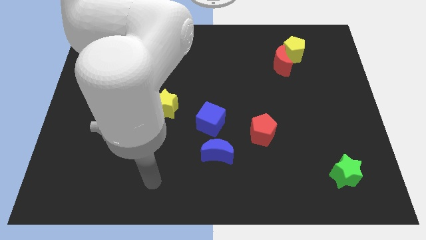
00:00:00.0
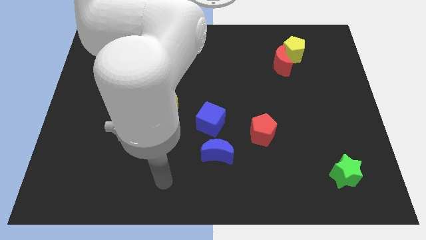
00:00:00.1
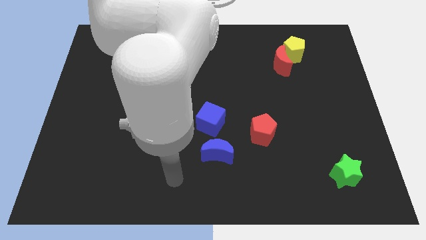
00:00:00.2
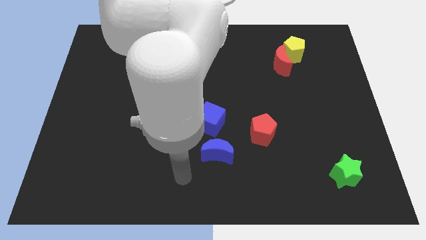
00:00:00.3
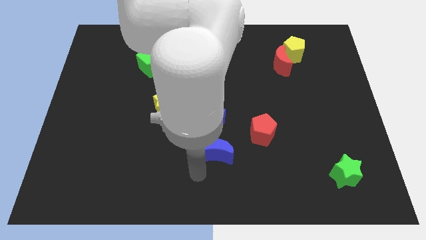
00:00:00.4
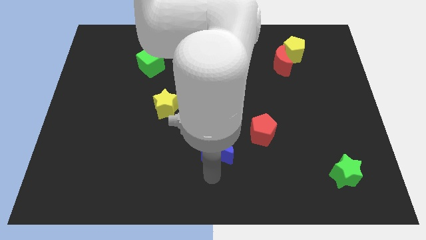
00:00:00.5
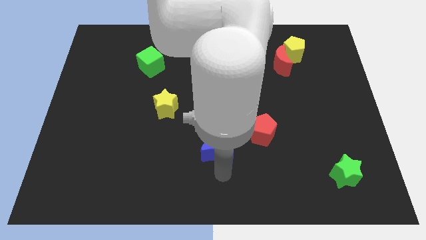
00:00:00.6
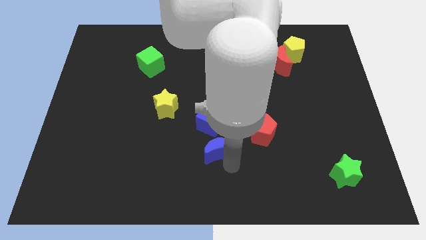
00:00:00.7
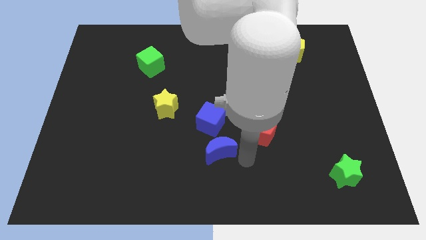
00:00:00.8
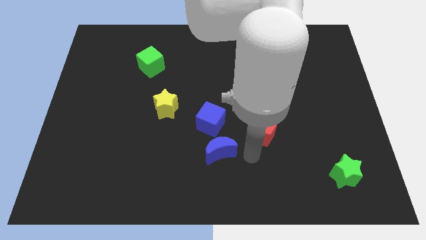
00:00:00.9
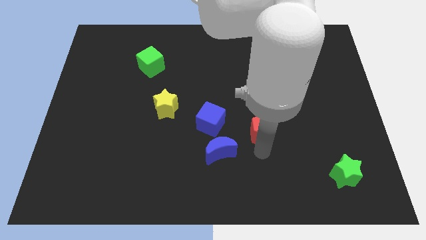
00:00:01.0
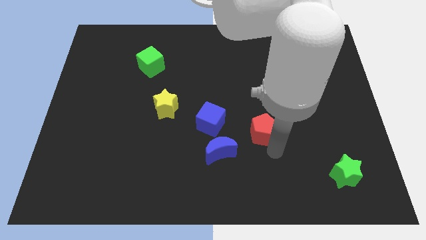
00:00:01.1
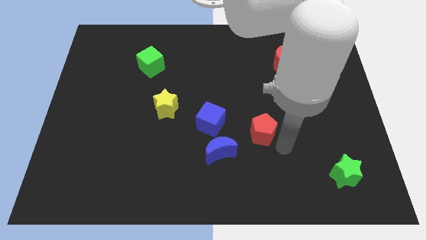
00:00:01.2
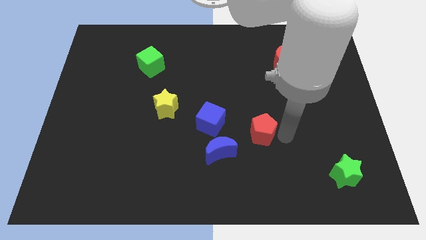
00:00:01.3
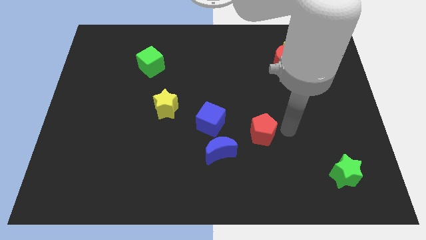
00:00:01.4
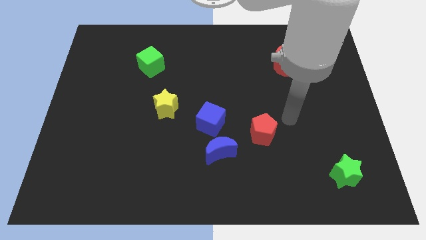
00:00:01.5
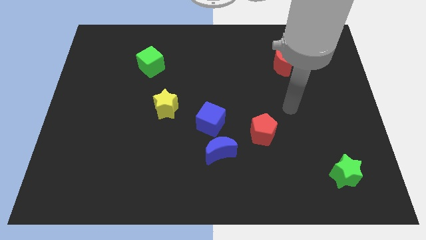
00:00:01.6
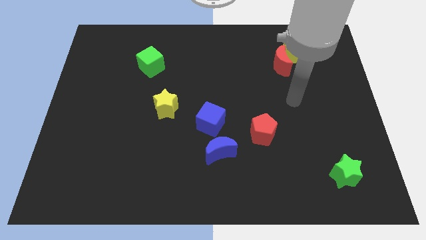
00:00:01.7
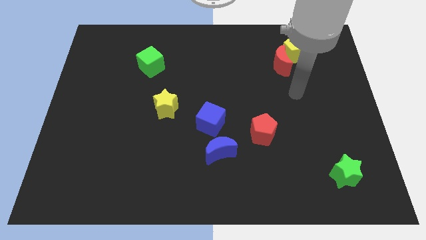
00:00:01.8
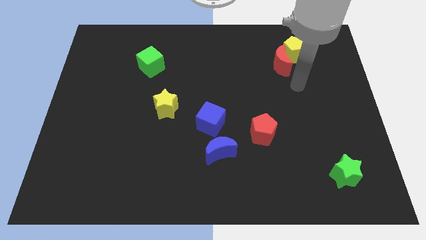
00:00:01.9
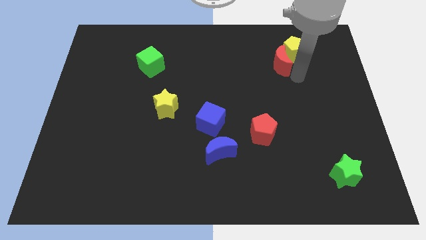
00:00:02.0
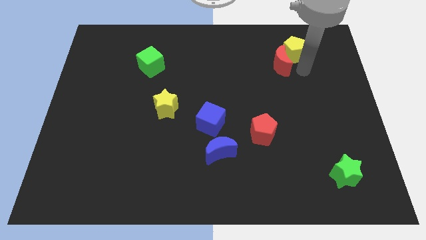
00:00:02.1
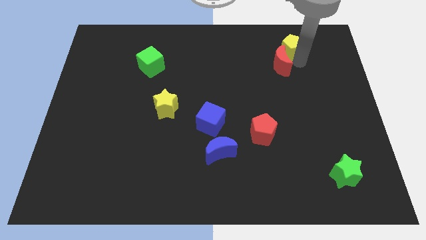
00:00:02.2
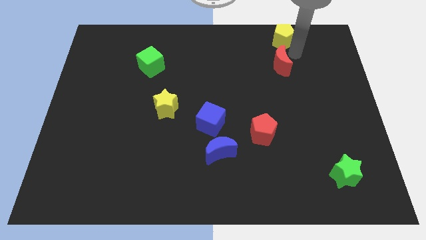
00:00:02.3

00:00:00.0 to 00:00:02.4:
move the red moon away from the yellow pentagon

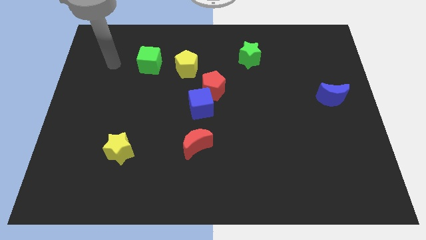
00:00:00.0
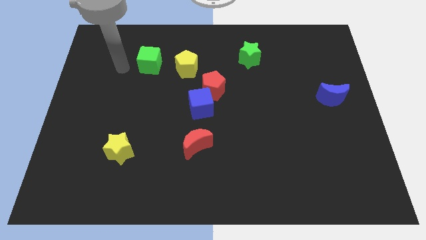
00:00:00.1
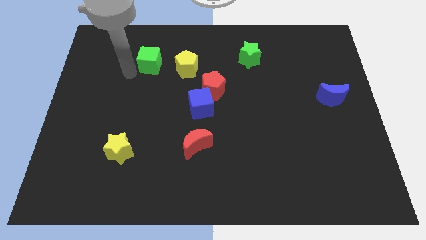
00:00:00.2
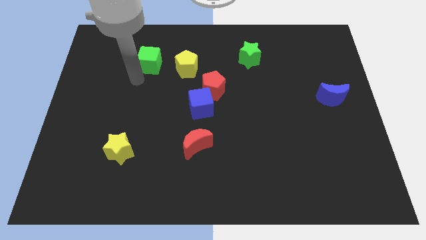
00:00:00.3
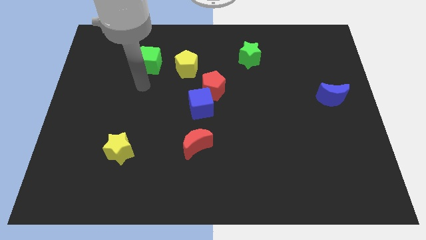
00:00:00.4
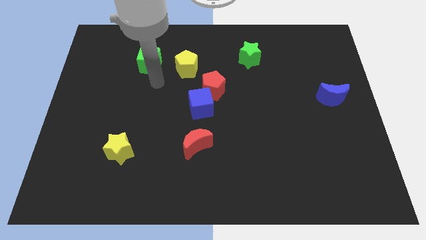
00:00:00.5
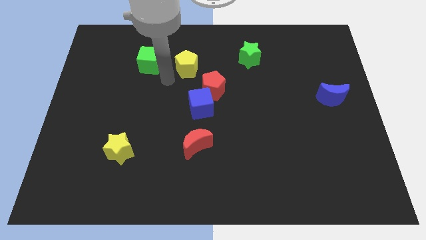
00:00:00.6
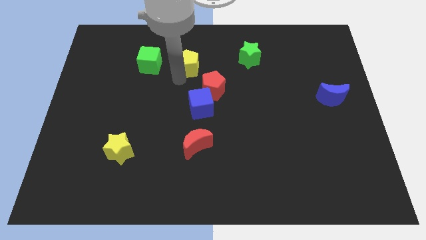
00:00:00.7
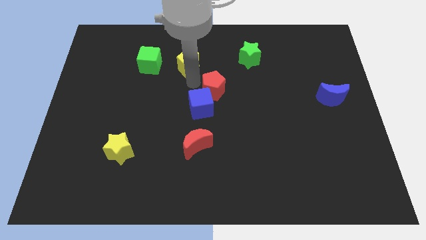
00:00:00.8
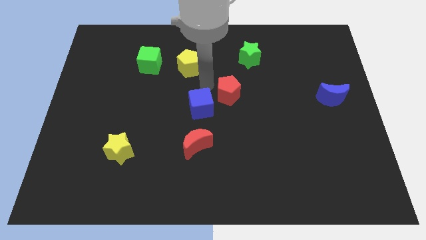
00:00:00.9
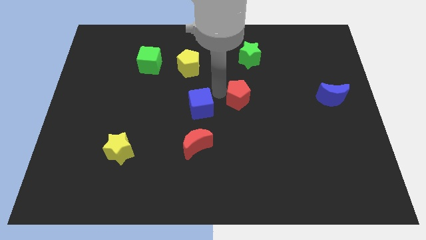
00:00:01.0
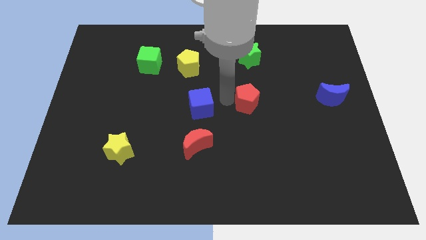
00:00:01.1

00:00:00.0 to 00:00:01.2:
pull the blue cube apart from the red pentagon

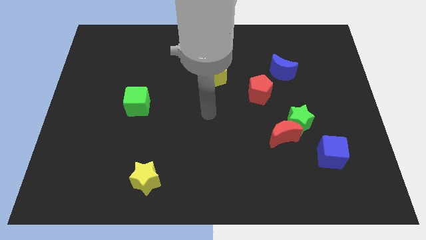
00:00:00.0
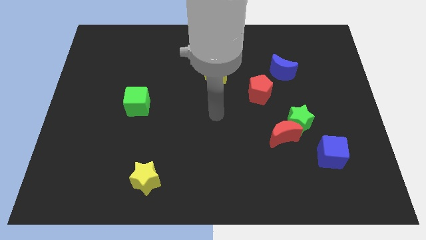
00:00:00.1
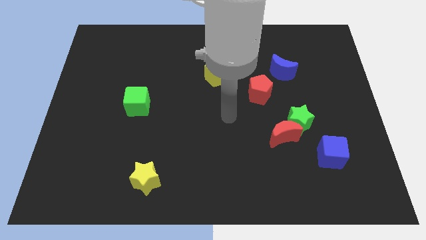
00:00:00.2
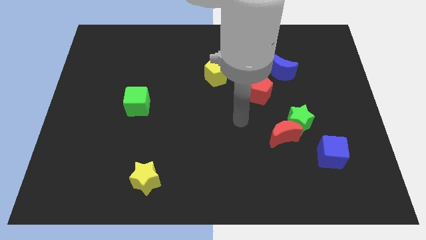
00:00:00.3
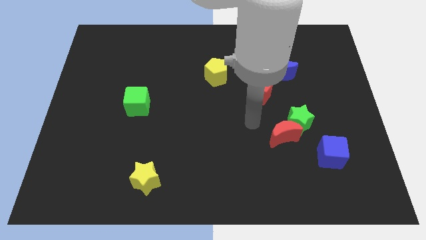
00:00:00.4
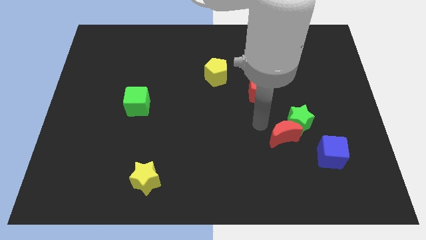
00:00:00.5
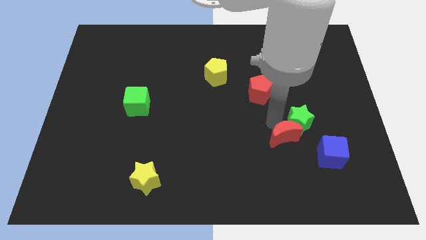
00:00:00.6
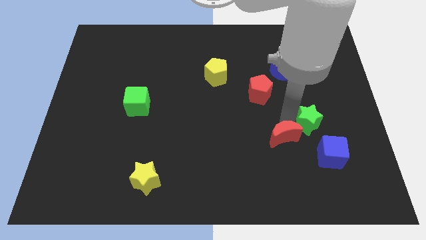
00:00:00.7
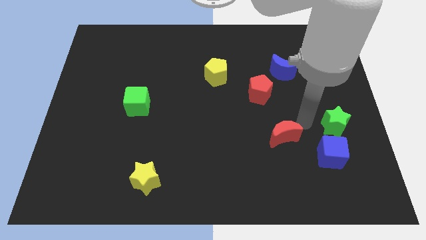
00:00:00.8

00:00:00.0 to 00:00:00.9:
pull the red moon apart from the green star

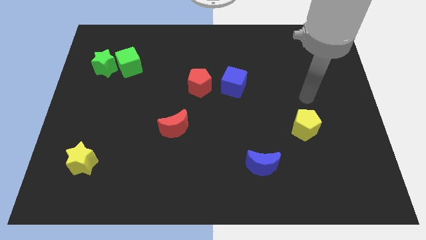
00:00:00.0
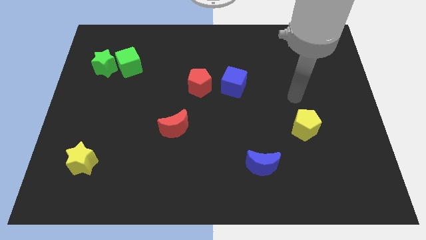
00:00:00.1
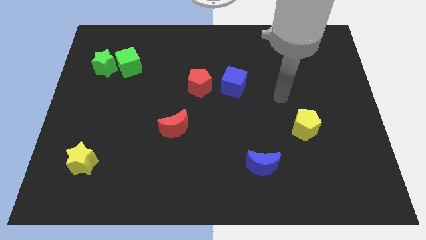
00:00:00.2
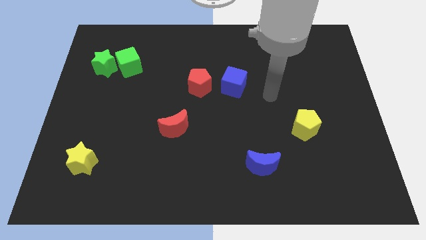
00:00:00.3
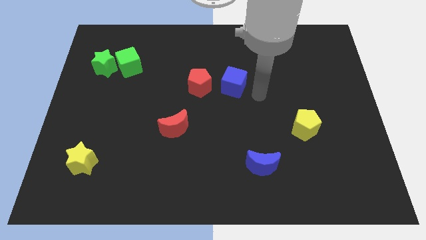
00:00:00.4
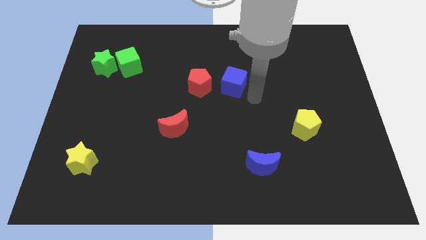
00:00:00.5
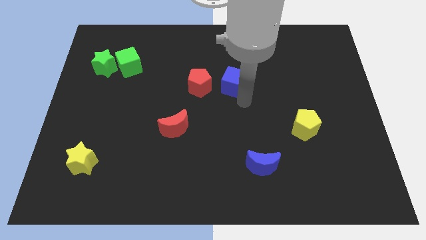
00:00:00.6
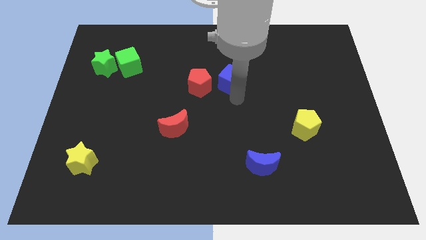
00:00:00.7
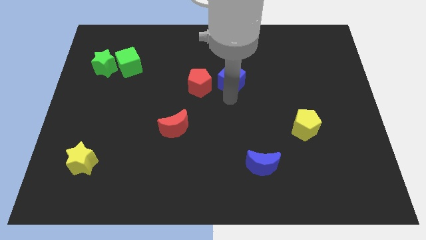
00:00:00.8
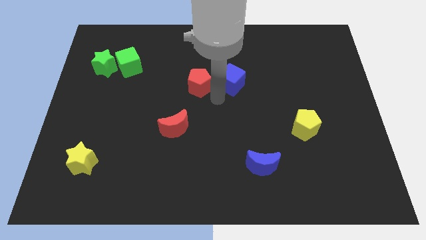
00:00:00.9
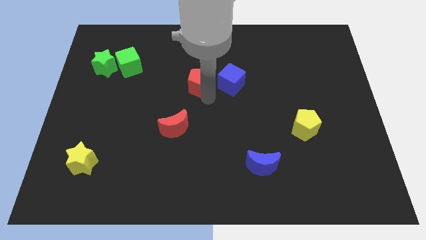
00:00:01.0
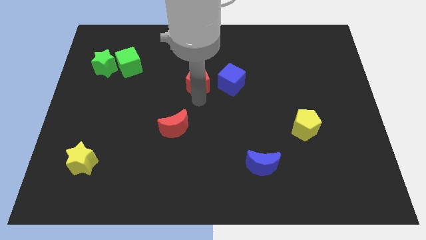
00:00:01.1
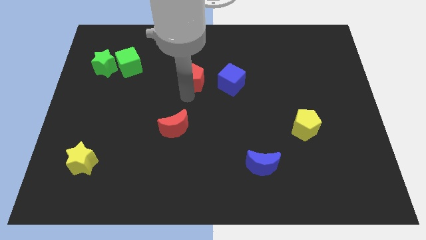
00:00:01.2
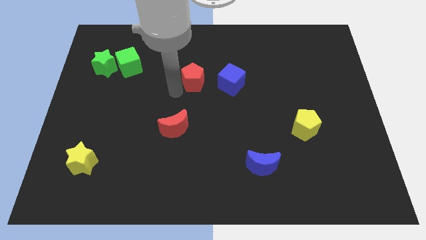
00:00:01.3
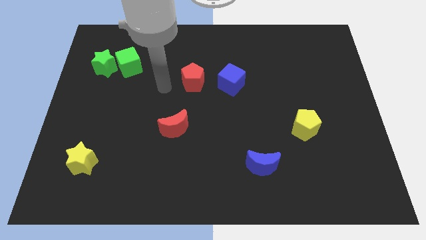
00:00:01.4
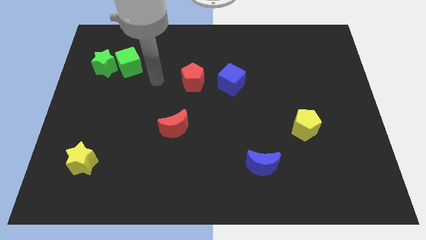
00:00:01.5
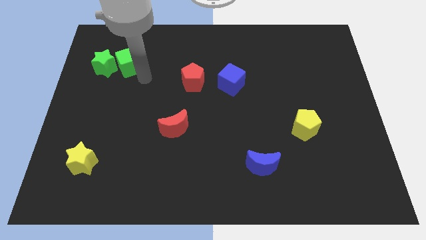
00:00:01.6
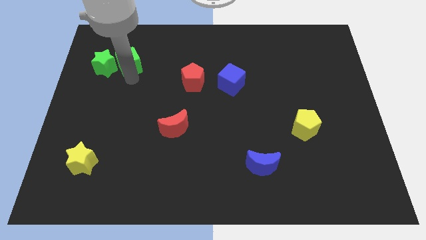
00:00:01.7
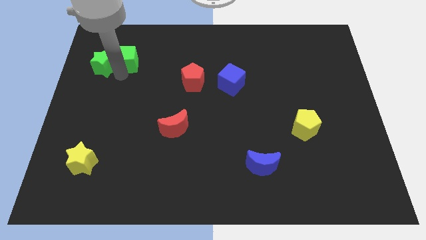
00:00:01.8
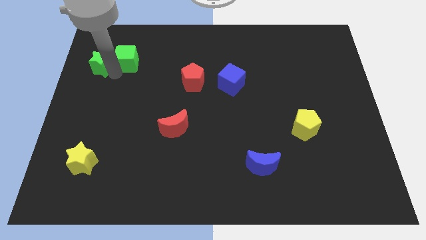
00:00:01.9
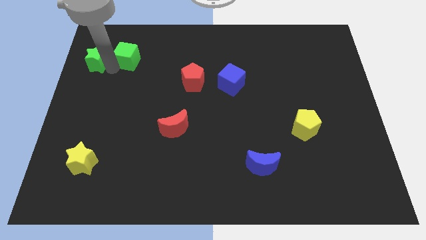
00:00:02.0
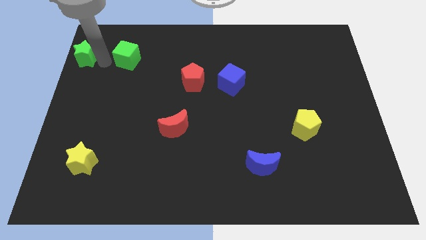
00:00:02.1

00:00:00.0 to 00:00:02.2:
move the green cube away from the green star

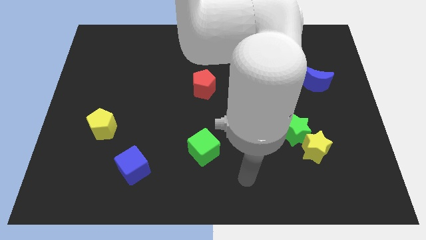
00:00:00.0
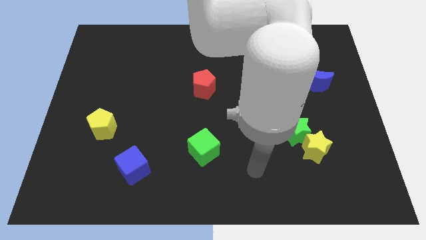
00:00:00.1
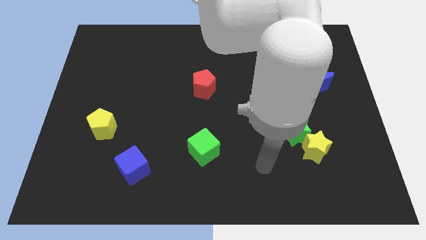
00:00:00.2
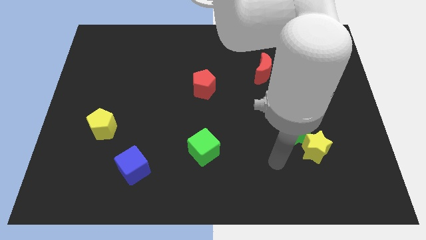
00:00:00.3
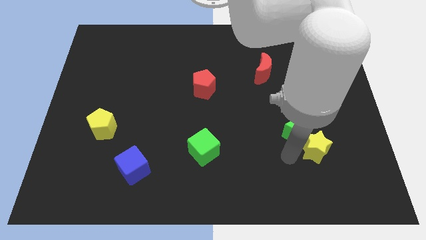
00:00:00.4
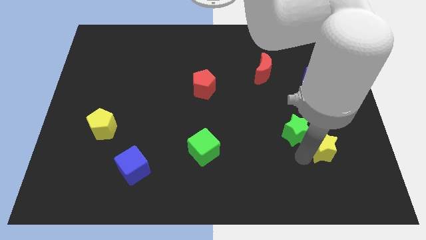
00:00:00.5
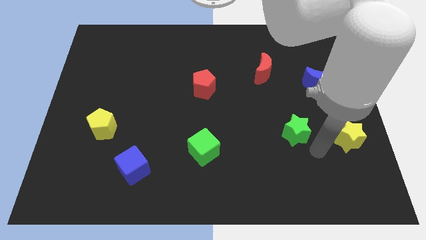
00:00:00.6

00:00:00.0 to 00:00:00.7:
pull the green star apart from the yellow star

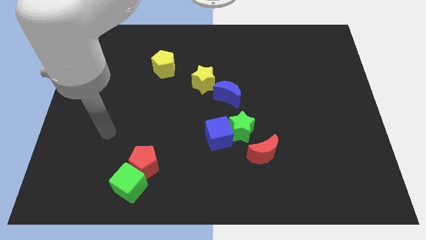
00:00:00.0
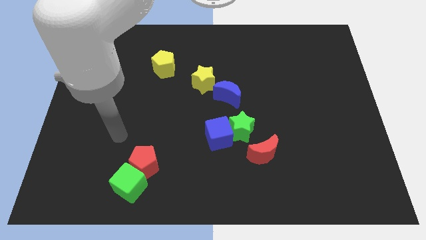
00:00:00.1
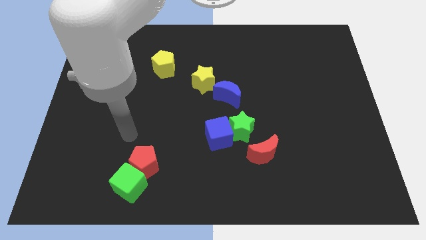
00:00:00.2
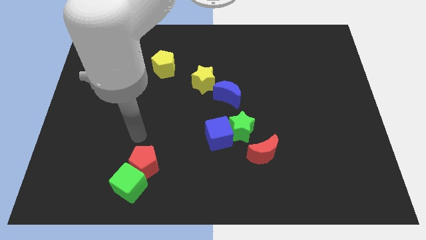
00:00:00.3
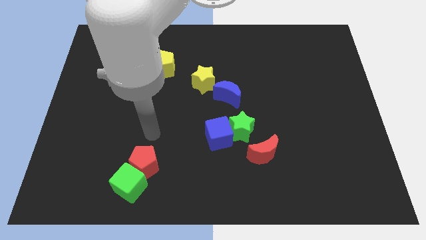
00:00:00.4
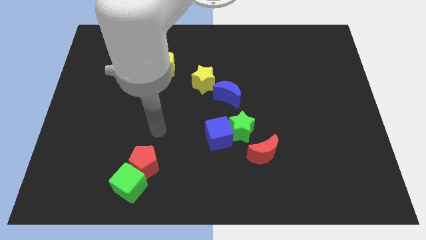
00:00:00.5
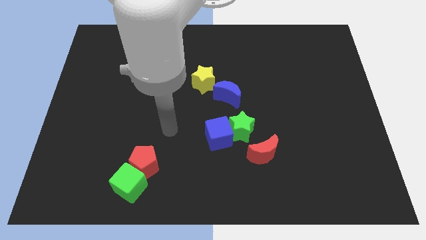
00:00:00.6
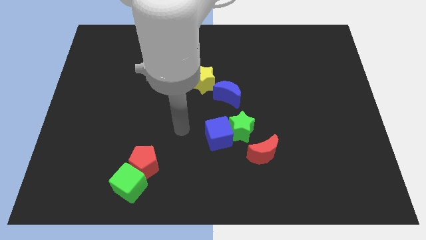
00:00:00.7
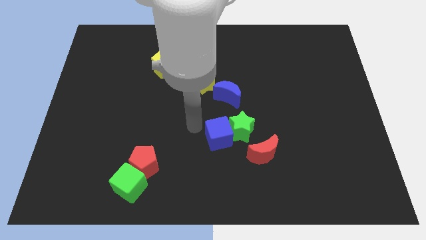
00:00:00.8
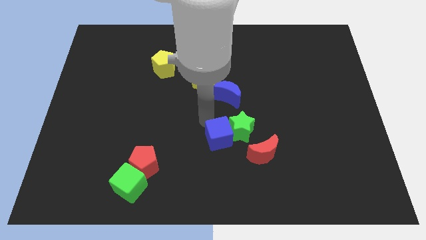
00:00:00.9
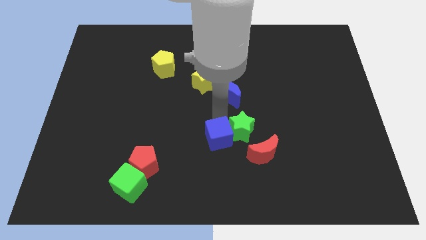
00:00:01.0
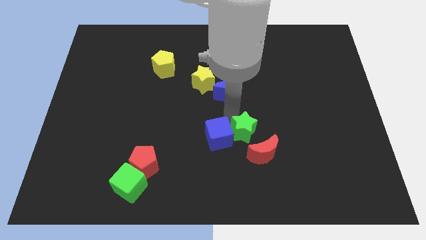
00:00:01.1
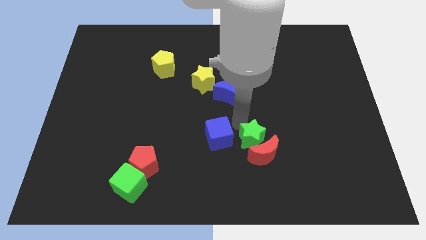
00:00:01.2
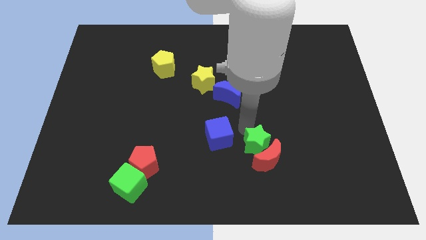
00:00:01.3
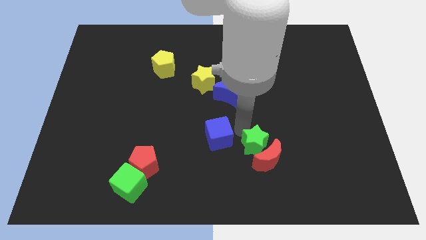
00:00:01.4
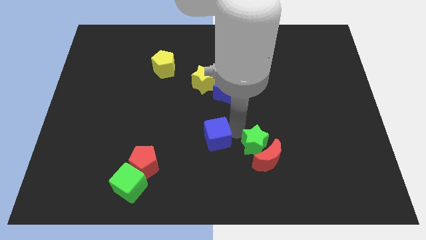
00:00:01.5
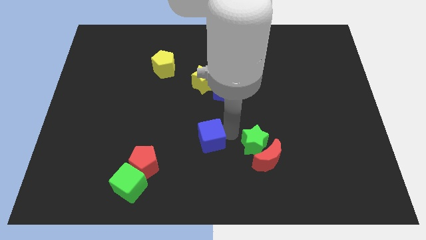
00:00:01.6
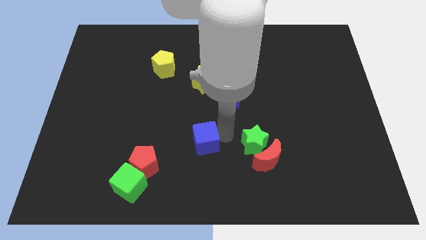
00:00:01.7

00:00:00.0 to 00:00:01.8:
pull the blue cube apart from the green star

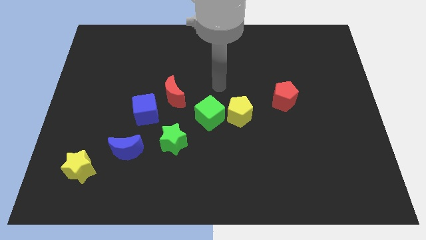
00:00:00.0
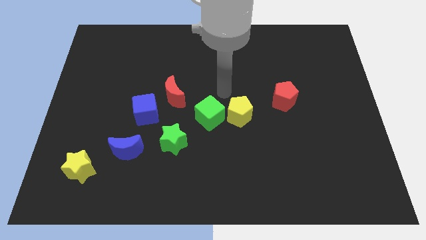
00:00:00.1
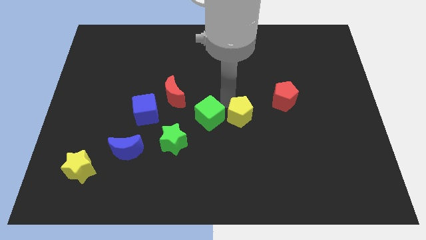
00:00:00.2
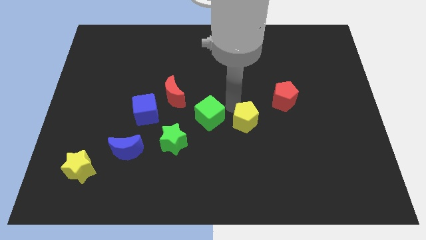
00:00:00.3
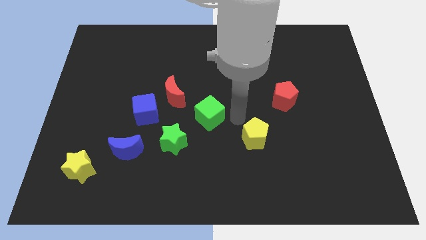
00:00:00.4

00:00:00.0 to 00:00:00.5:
move the green cube away from the yellow pentagon
